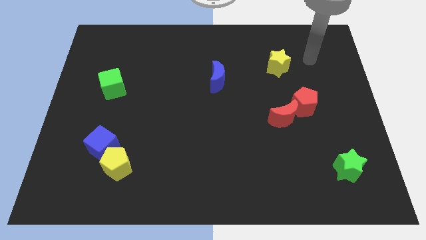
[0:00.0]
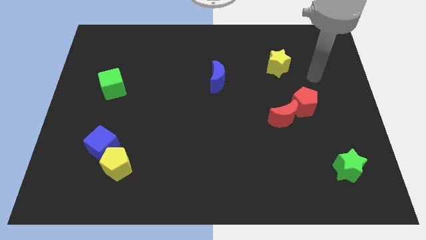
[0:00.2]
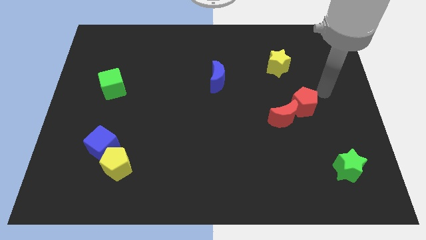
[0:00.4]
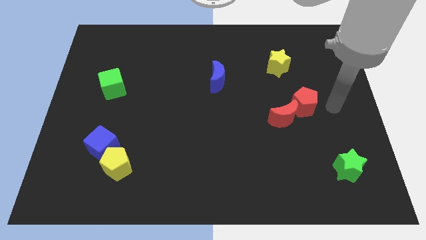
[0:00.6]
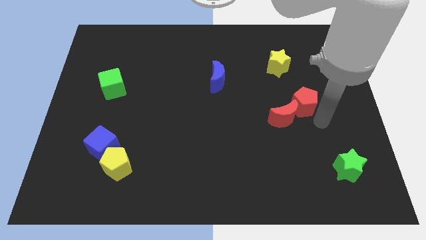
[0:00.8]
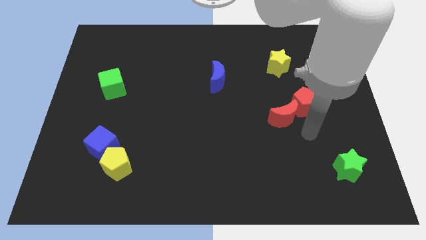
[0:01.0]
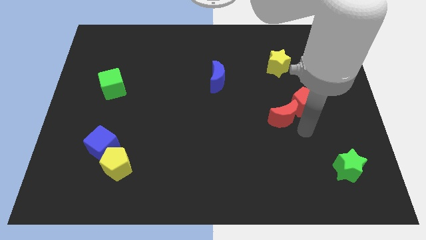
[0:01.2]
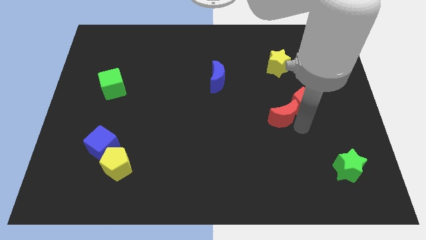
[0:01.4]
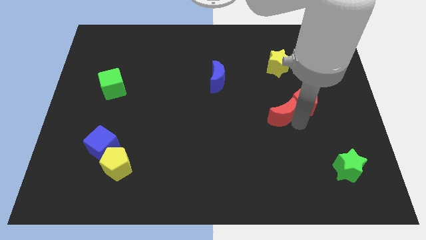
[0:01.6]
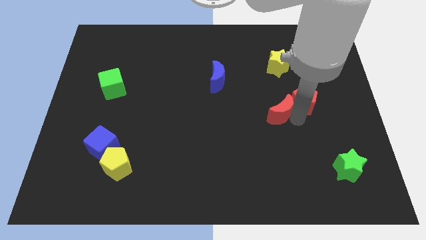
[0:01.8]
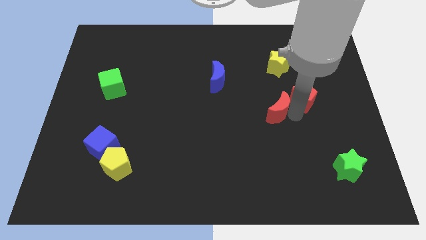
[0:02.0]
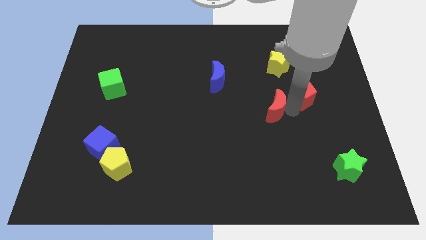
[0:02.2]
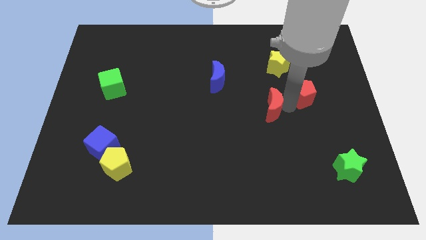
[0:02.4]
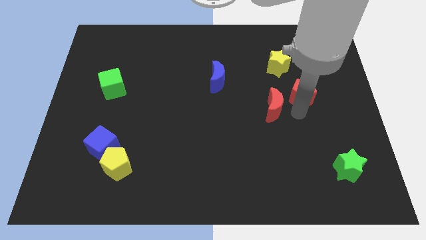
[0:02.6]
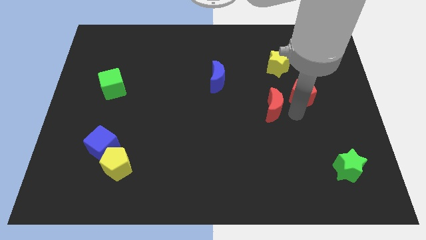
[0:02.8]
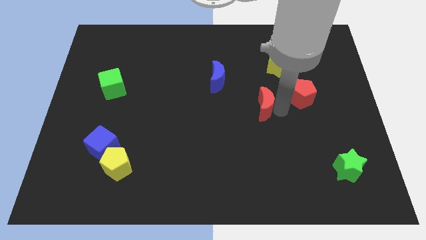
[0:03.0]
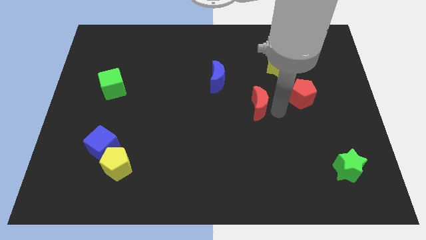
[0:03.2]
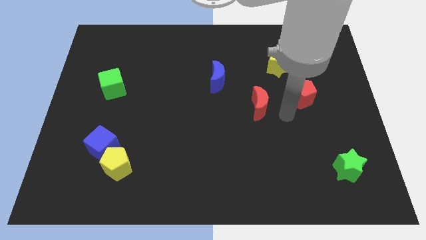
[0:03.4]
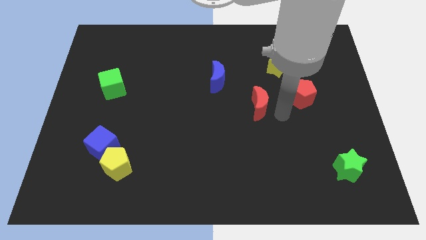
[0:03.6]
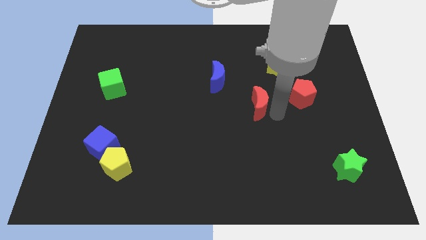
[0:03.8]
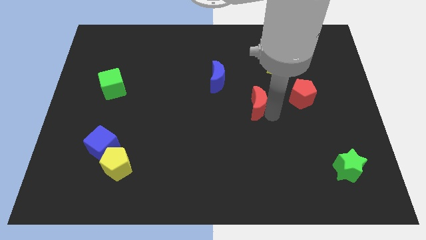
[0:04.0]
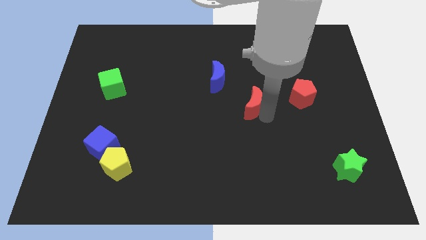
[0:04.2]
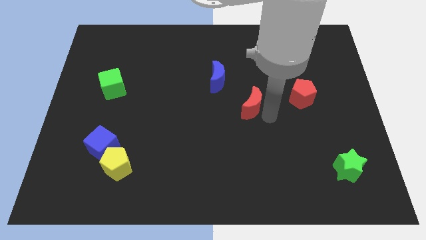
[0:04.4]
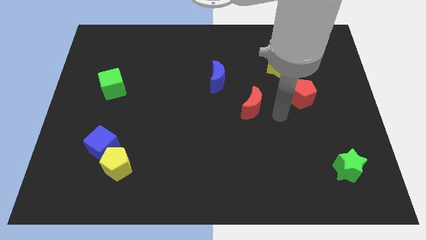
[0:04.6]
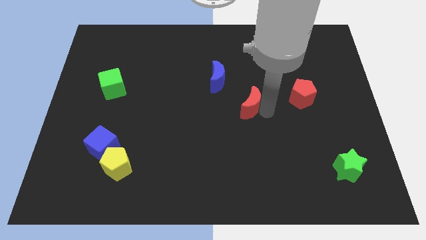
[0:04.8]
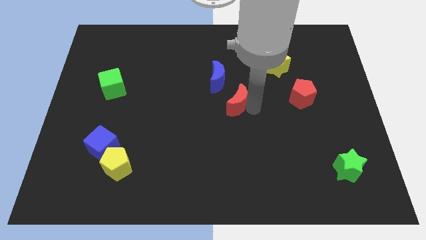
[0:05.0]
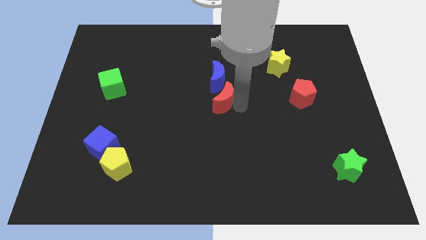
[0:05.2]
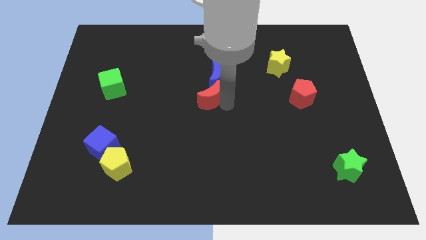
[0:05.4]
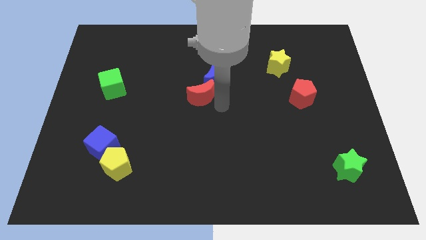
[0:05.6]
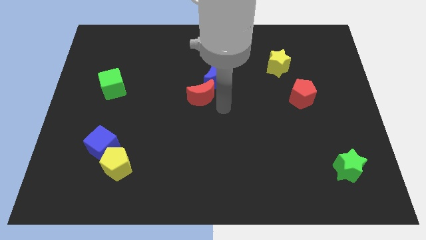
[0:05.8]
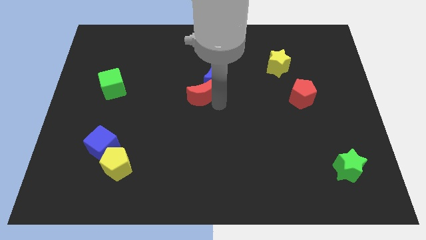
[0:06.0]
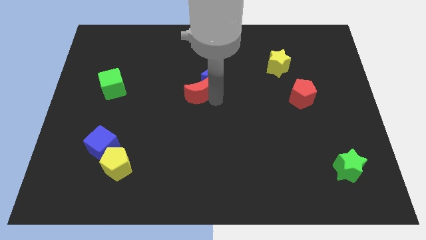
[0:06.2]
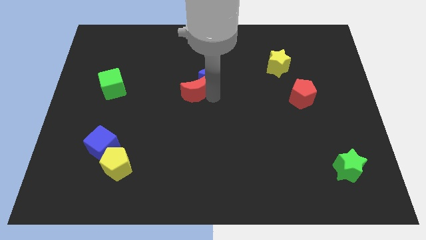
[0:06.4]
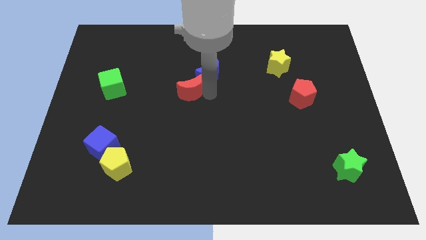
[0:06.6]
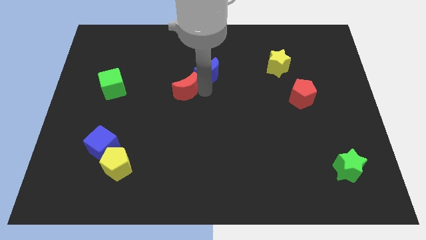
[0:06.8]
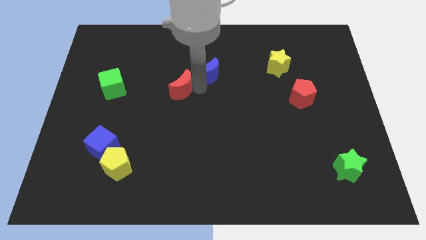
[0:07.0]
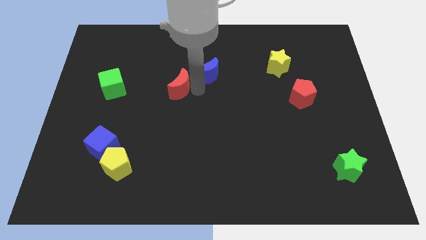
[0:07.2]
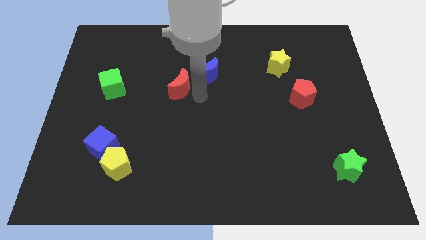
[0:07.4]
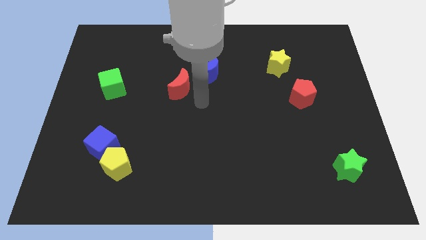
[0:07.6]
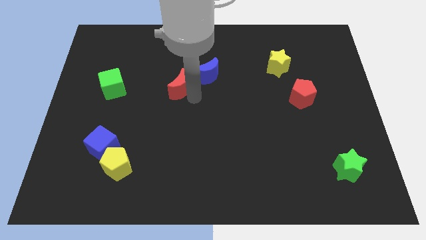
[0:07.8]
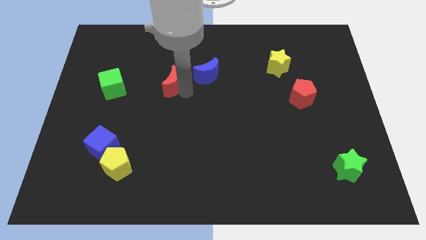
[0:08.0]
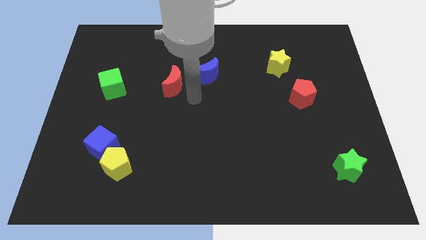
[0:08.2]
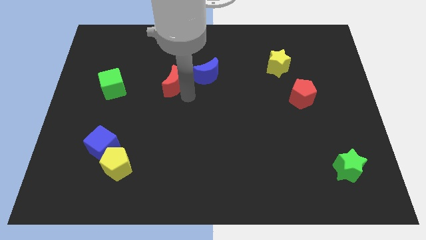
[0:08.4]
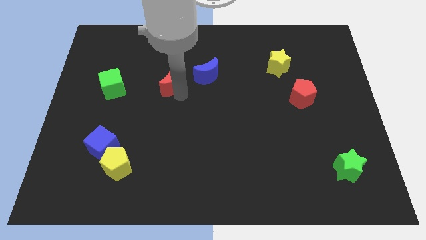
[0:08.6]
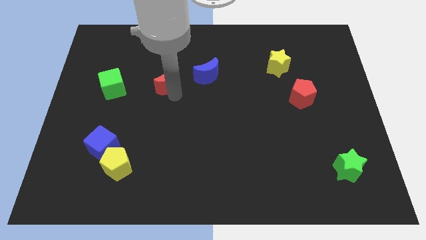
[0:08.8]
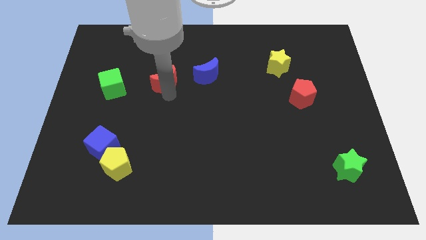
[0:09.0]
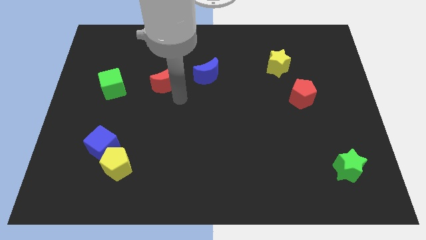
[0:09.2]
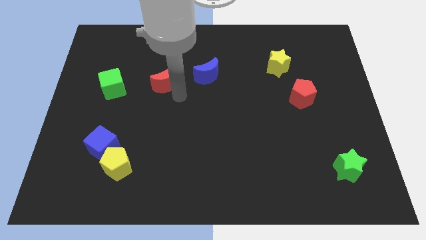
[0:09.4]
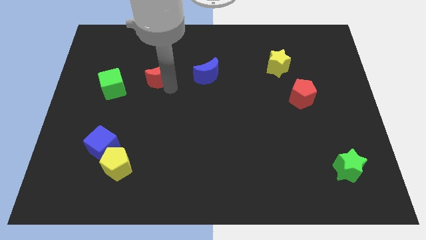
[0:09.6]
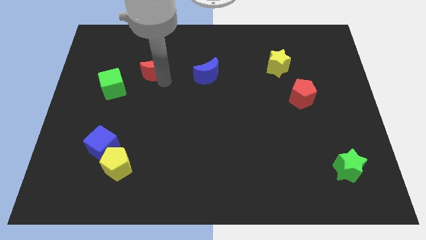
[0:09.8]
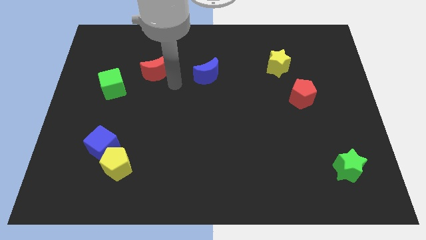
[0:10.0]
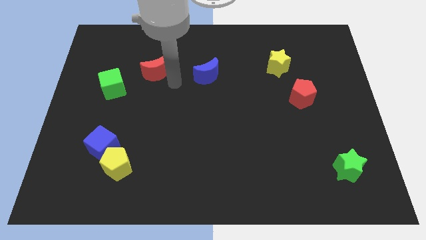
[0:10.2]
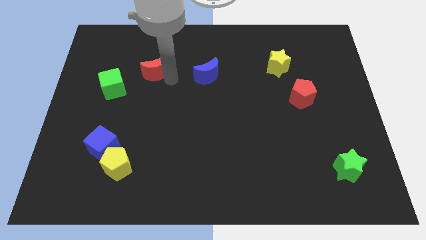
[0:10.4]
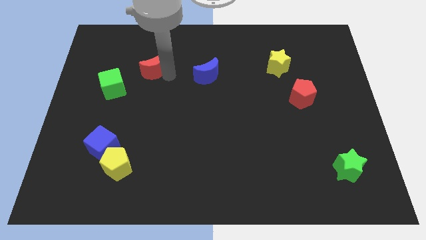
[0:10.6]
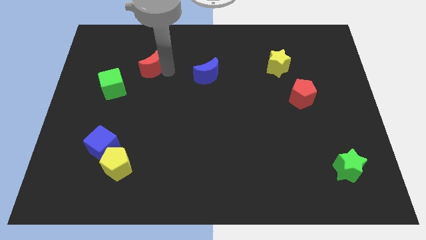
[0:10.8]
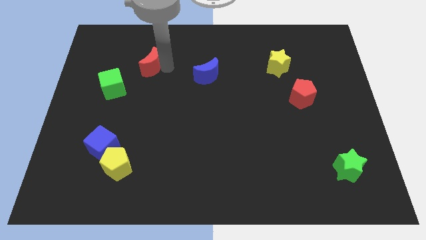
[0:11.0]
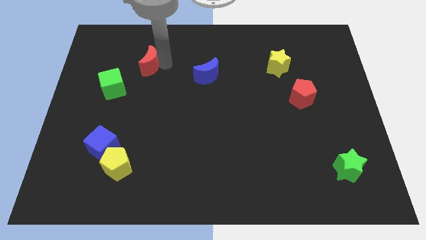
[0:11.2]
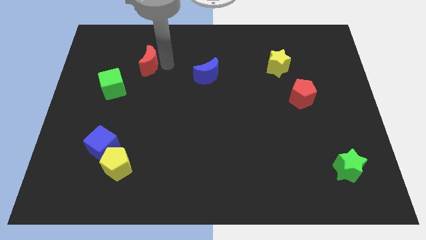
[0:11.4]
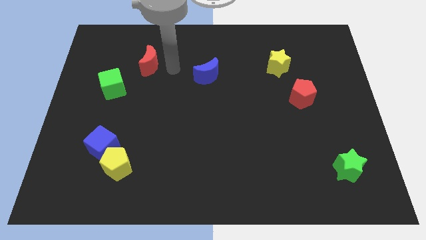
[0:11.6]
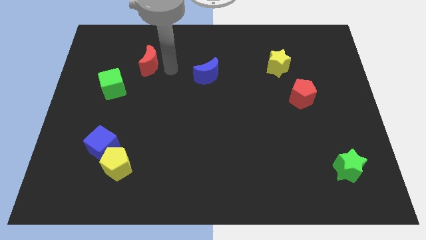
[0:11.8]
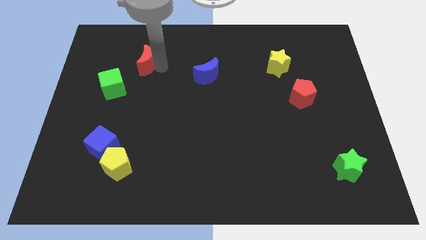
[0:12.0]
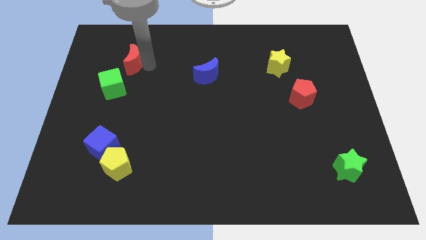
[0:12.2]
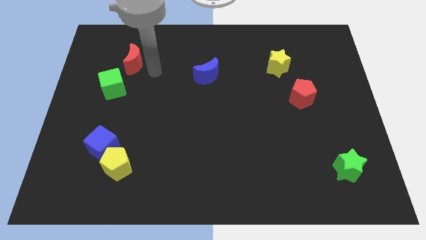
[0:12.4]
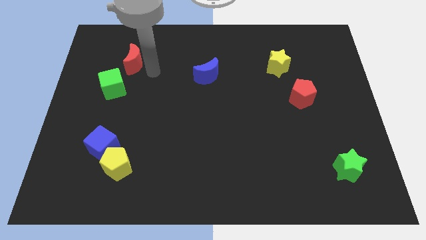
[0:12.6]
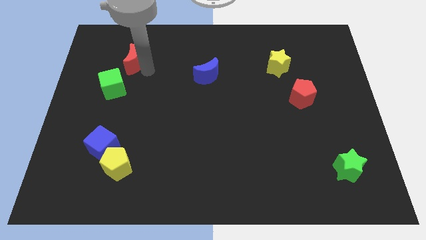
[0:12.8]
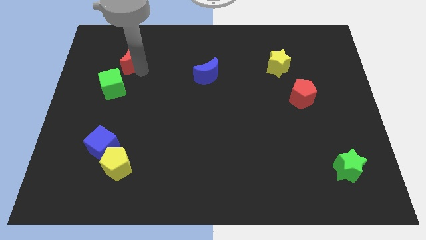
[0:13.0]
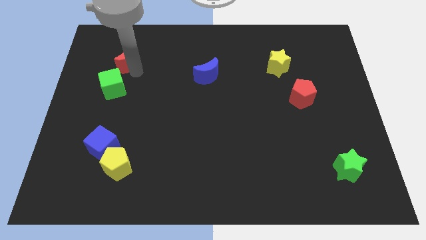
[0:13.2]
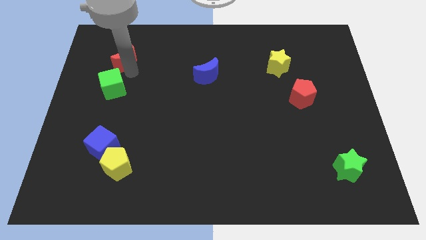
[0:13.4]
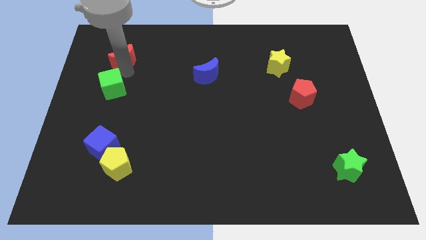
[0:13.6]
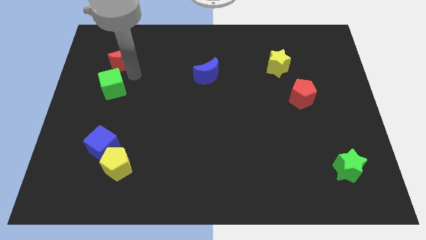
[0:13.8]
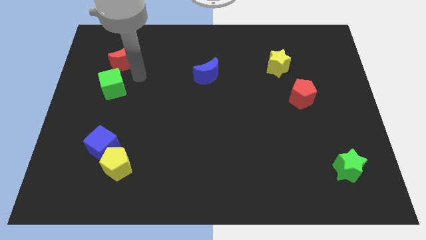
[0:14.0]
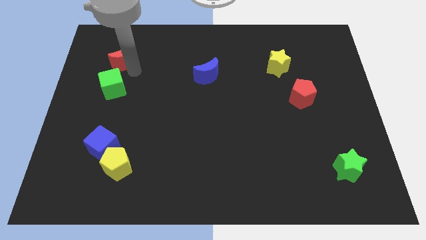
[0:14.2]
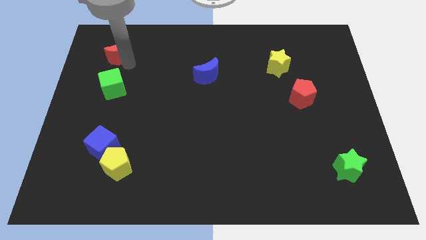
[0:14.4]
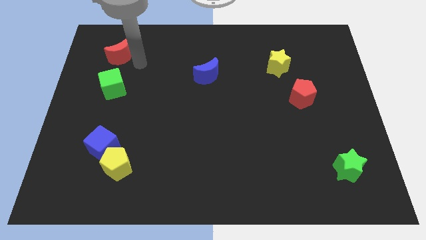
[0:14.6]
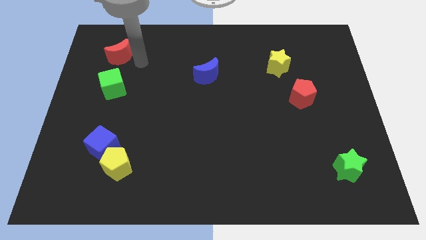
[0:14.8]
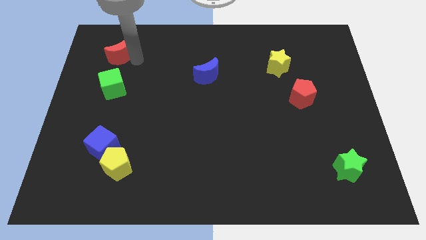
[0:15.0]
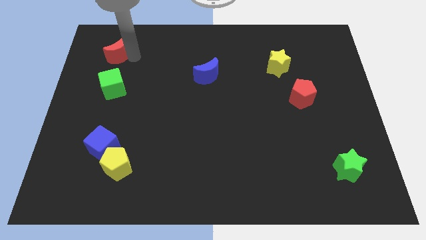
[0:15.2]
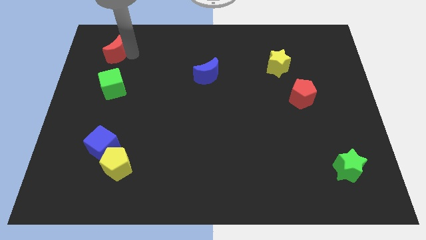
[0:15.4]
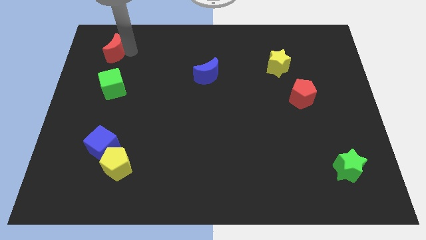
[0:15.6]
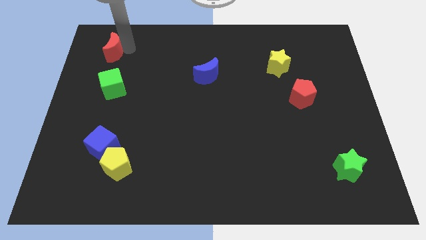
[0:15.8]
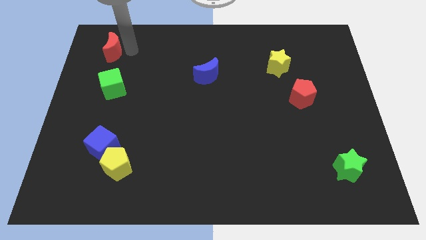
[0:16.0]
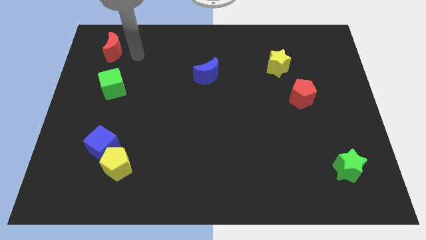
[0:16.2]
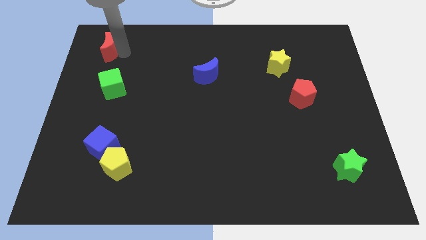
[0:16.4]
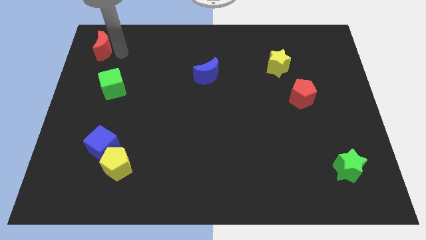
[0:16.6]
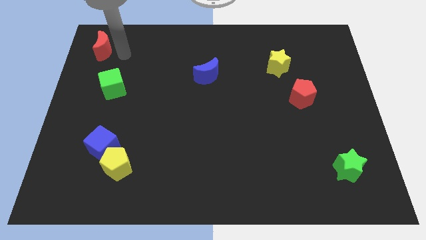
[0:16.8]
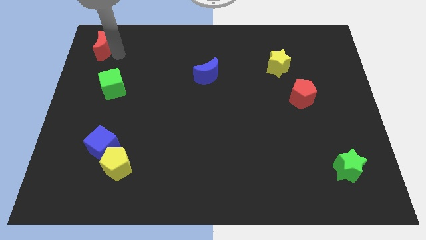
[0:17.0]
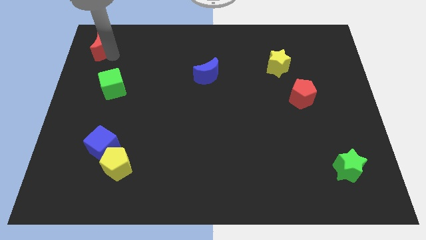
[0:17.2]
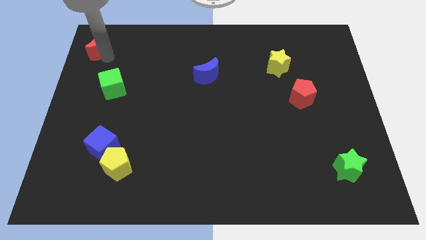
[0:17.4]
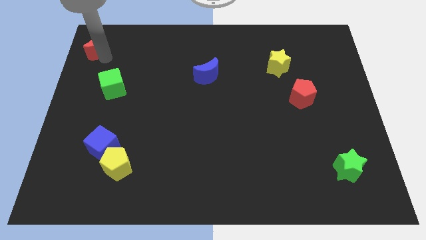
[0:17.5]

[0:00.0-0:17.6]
push the red moon to the top left
